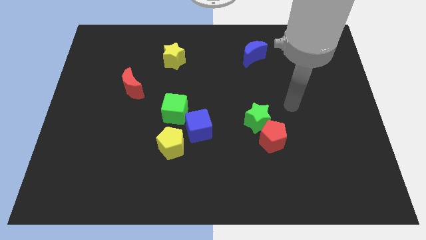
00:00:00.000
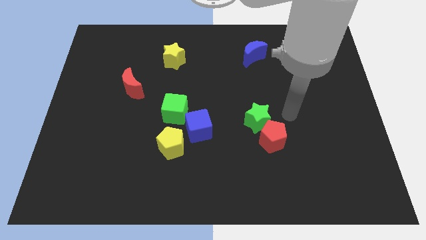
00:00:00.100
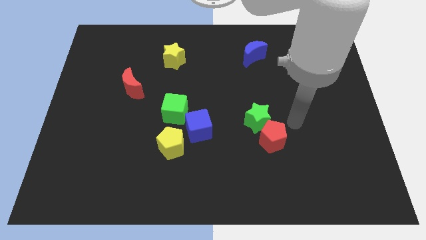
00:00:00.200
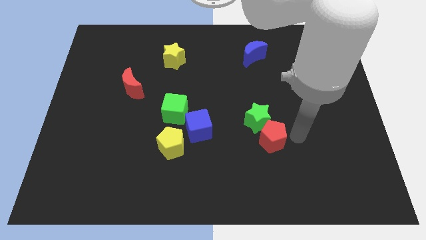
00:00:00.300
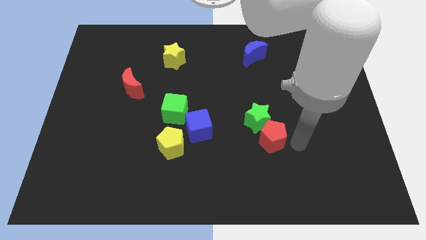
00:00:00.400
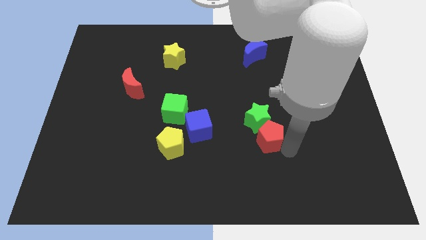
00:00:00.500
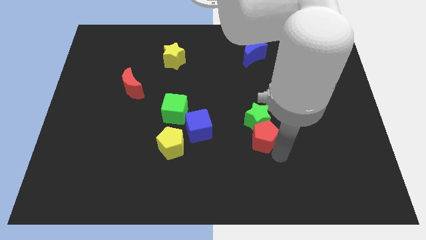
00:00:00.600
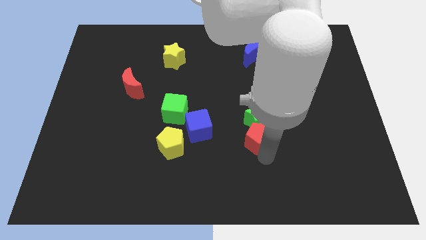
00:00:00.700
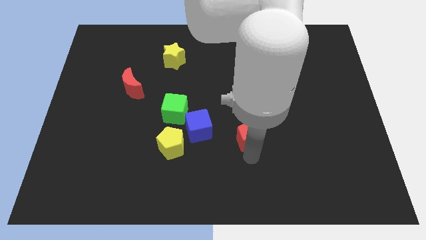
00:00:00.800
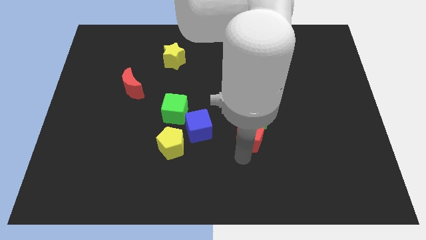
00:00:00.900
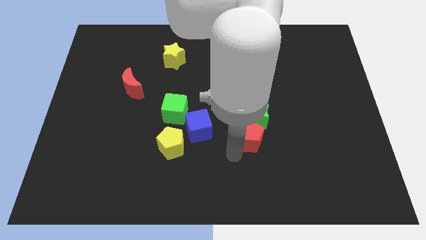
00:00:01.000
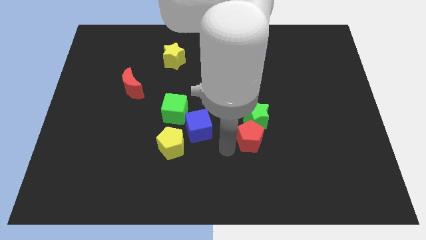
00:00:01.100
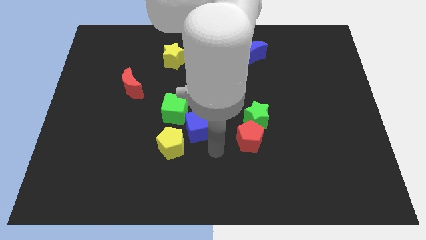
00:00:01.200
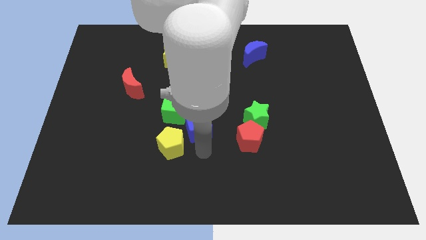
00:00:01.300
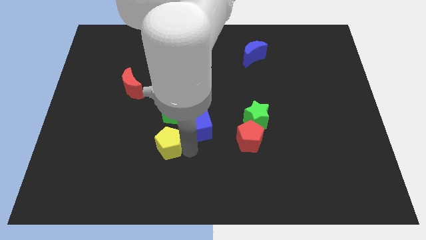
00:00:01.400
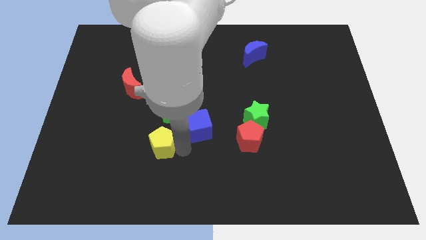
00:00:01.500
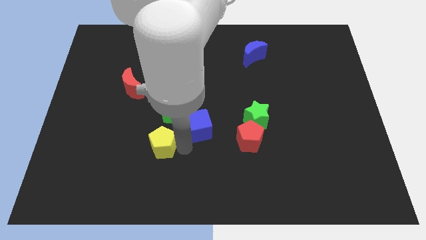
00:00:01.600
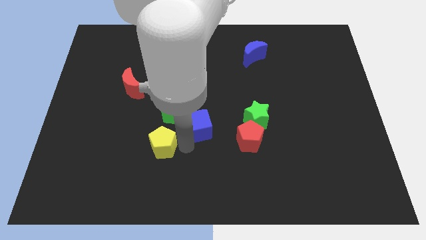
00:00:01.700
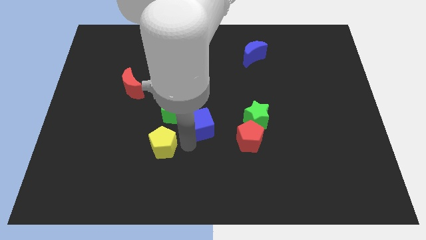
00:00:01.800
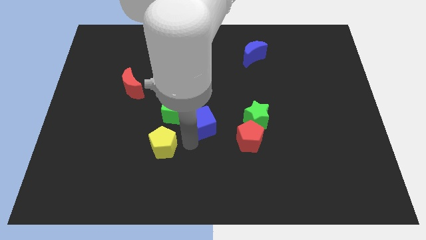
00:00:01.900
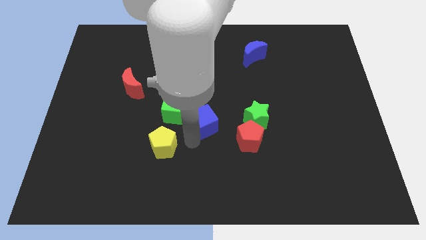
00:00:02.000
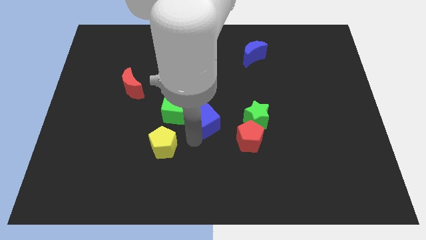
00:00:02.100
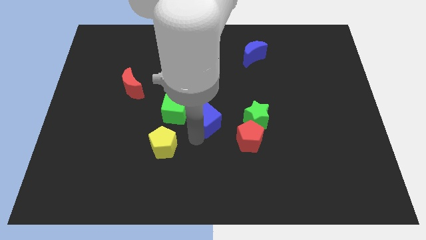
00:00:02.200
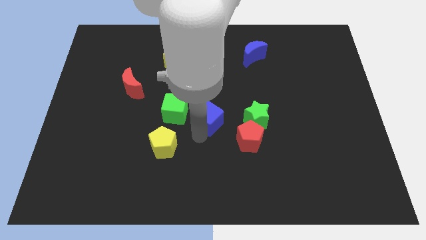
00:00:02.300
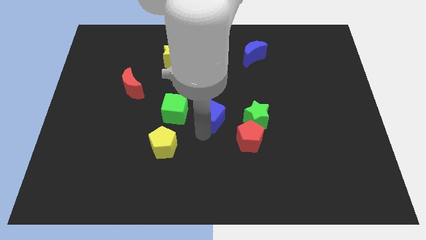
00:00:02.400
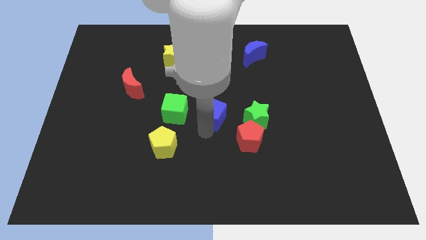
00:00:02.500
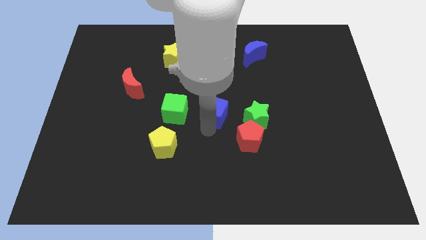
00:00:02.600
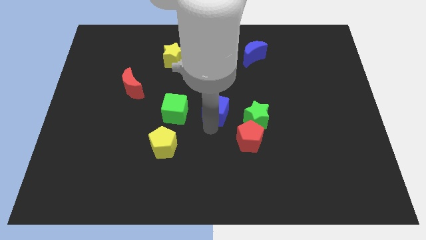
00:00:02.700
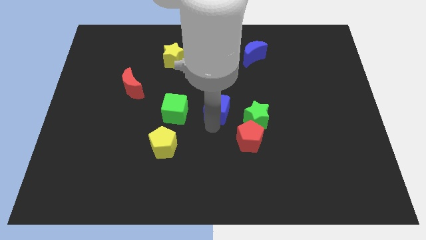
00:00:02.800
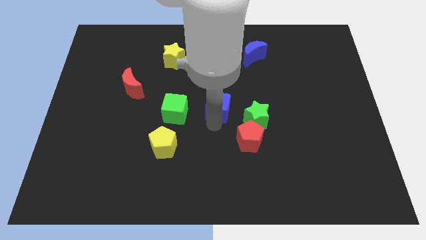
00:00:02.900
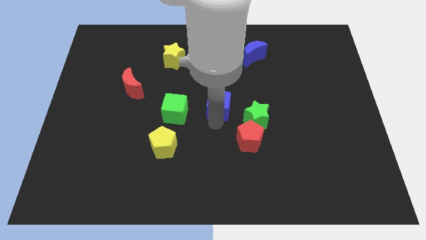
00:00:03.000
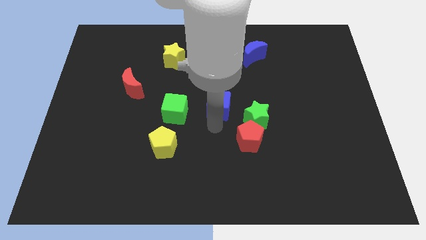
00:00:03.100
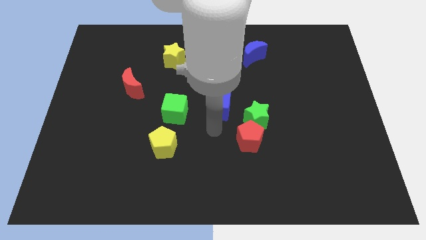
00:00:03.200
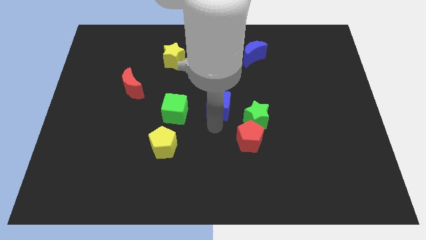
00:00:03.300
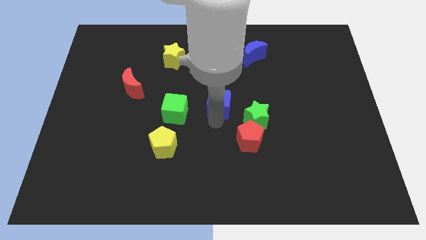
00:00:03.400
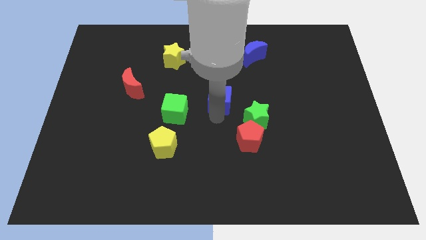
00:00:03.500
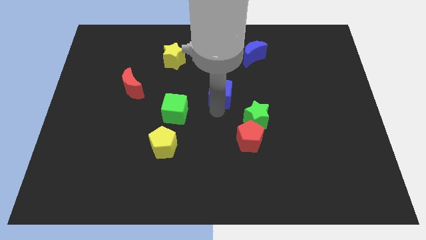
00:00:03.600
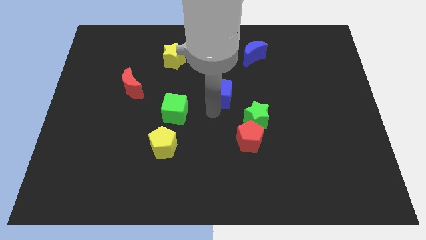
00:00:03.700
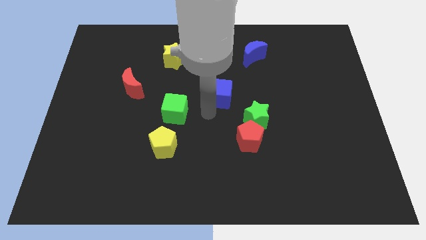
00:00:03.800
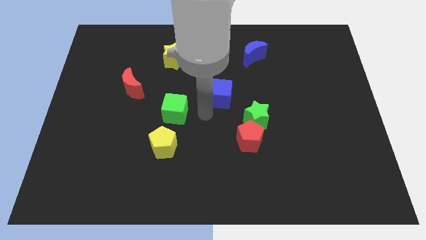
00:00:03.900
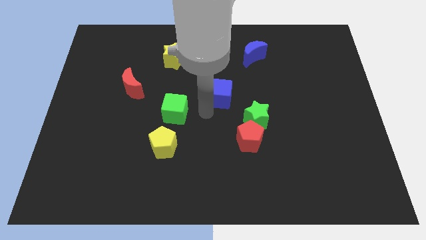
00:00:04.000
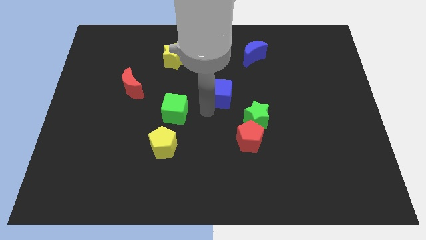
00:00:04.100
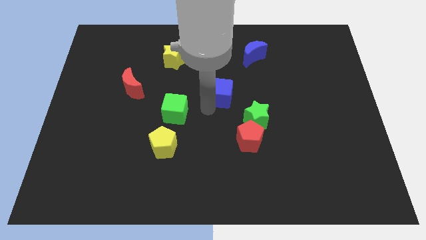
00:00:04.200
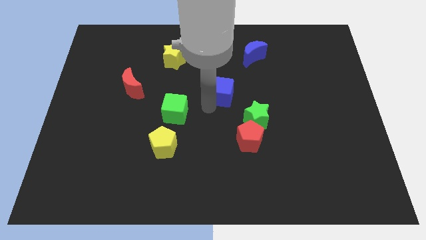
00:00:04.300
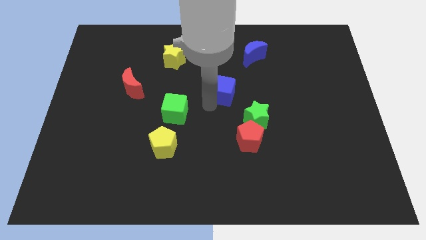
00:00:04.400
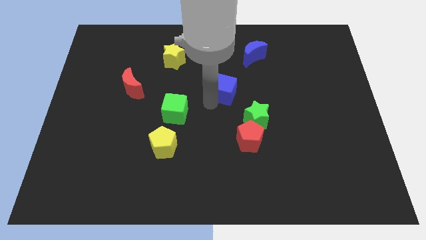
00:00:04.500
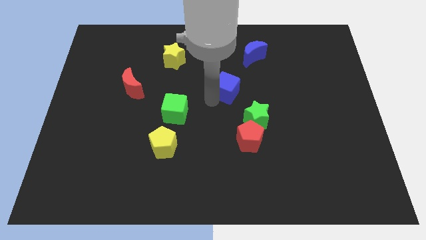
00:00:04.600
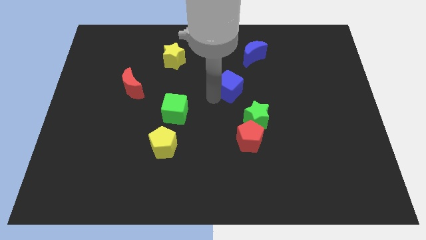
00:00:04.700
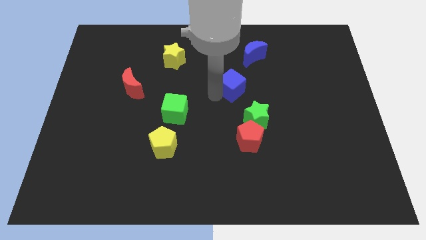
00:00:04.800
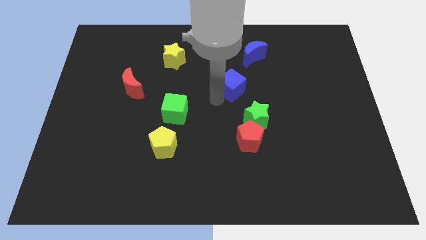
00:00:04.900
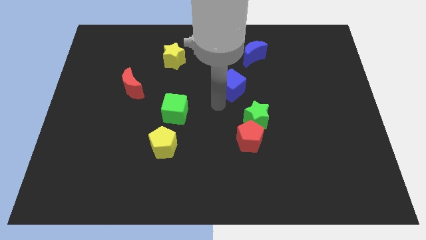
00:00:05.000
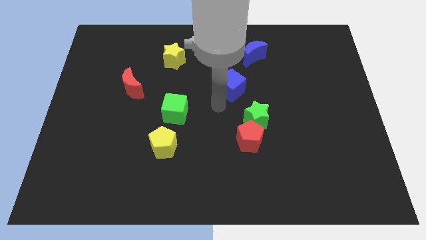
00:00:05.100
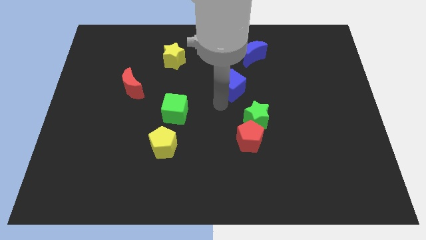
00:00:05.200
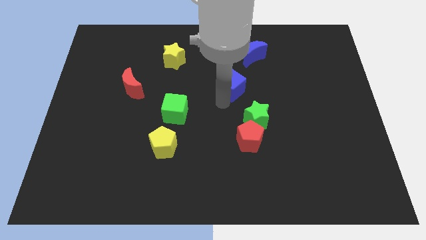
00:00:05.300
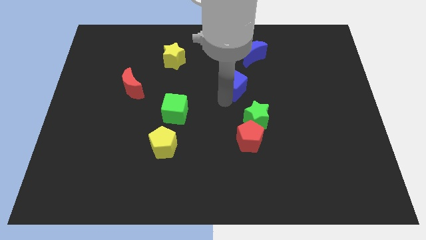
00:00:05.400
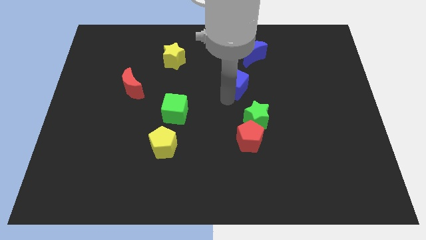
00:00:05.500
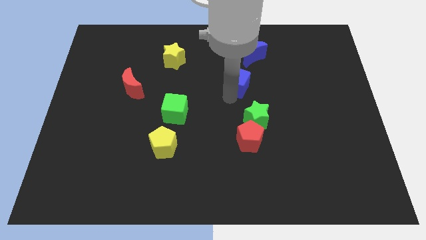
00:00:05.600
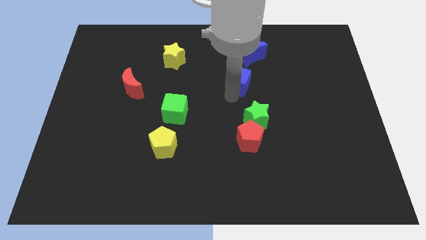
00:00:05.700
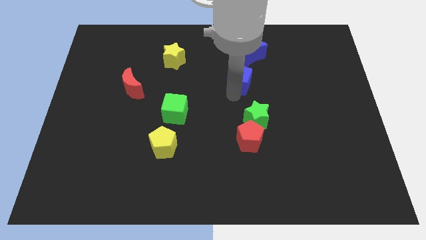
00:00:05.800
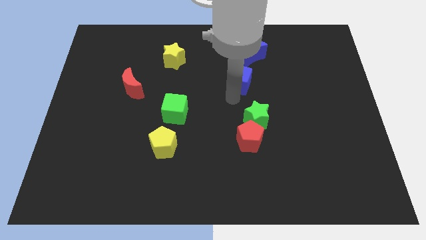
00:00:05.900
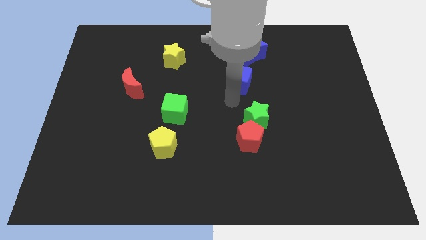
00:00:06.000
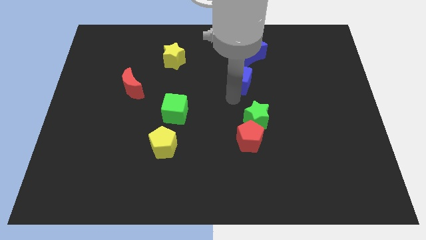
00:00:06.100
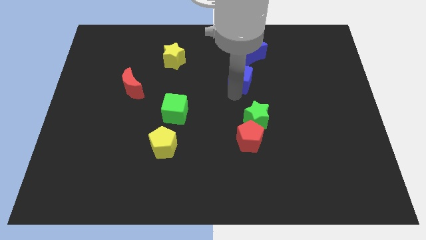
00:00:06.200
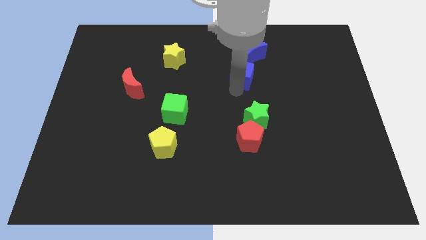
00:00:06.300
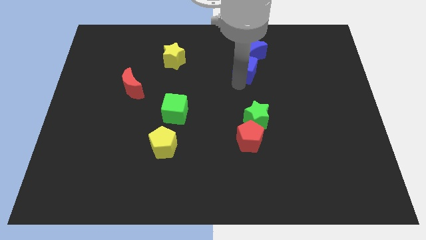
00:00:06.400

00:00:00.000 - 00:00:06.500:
put the blue cube next to the blue moon
